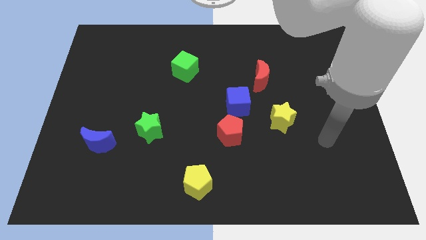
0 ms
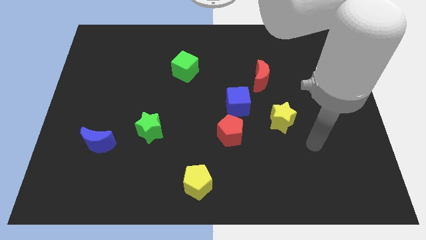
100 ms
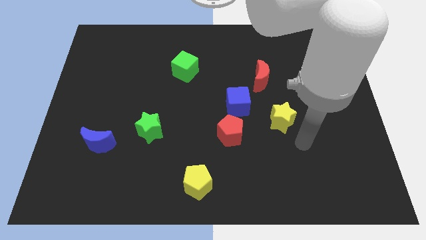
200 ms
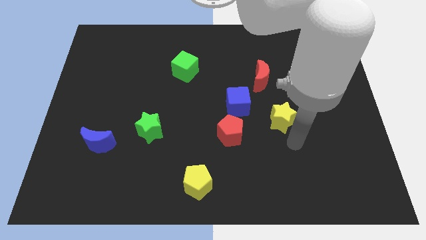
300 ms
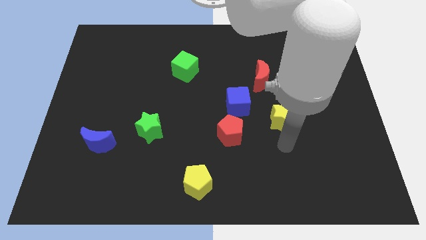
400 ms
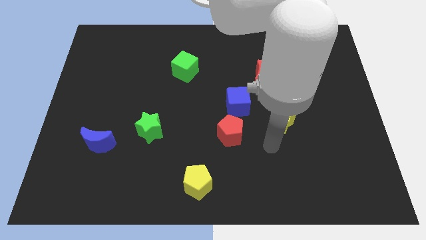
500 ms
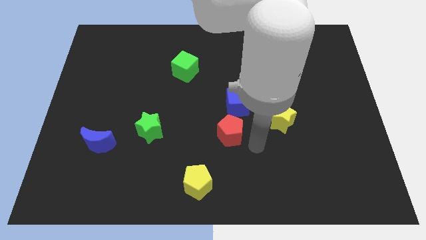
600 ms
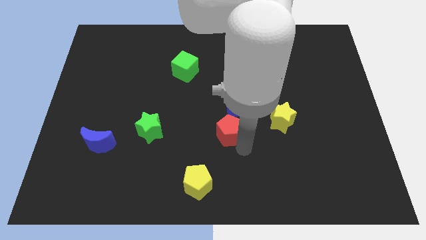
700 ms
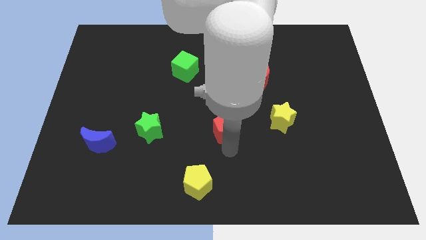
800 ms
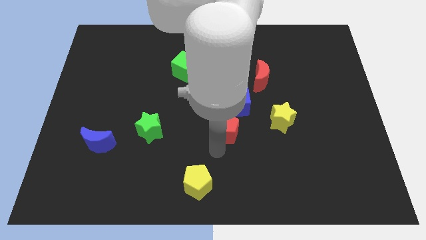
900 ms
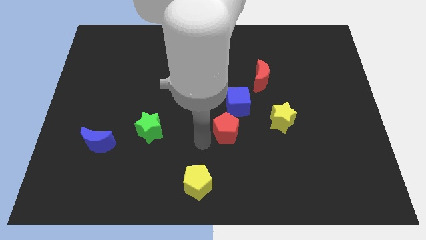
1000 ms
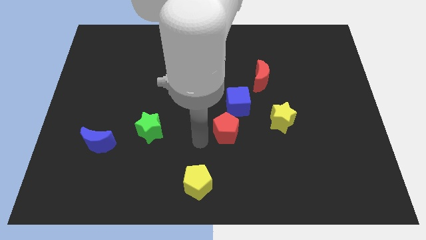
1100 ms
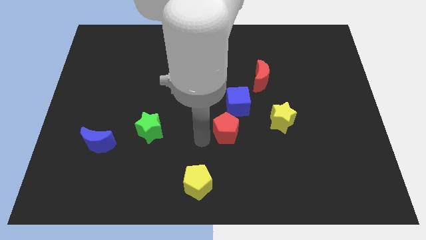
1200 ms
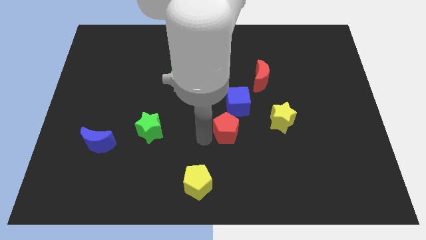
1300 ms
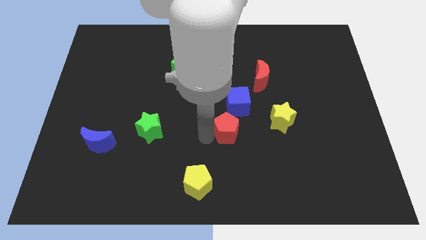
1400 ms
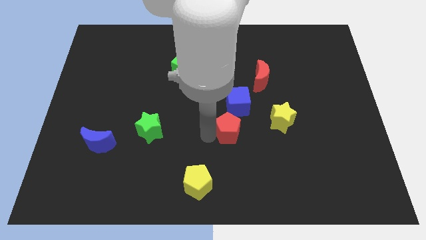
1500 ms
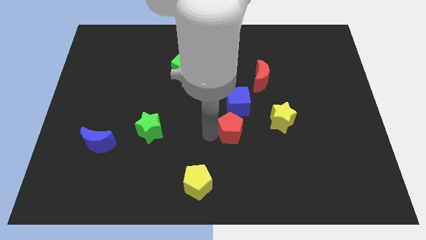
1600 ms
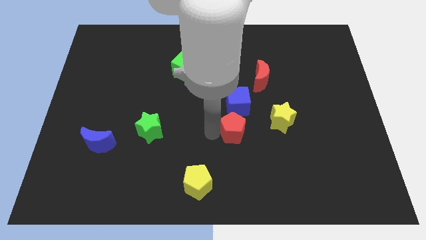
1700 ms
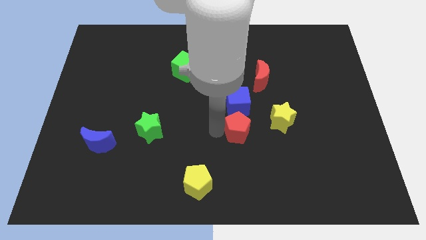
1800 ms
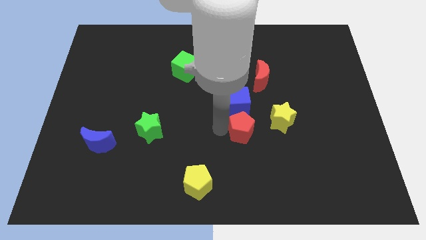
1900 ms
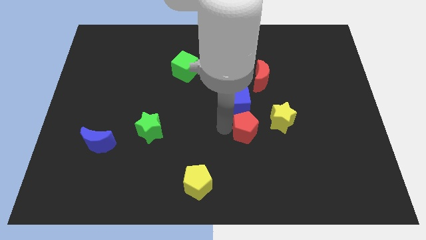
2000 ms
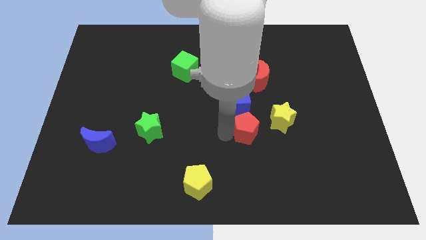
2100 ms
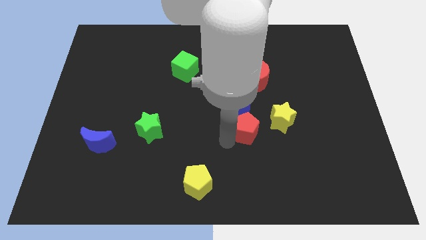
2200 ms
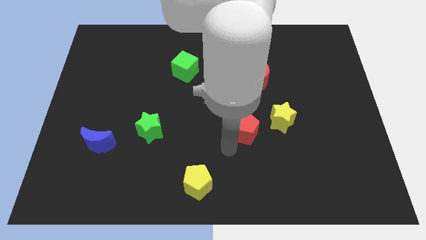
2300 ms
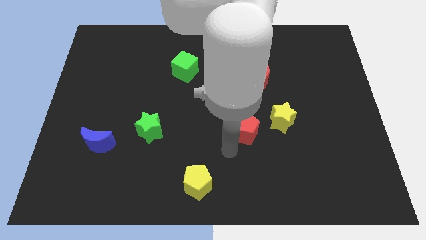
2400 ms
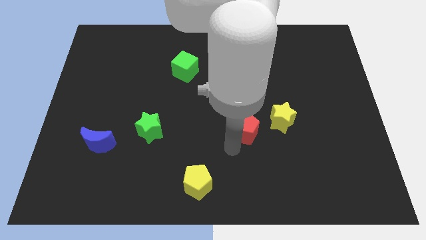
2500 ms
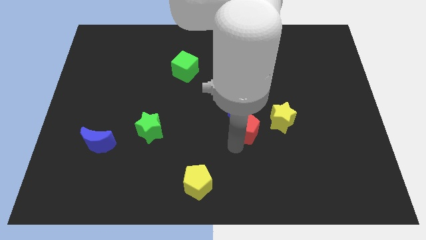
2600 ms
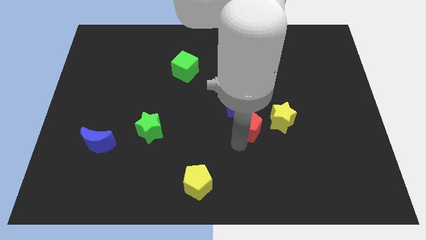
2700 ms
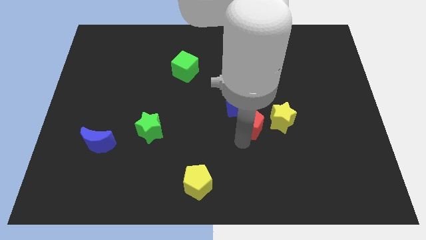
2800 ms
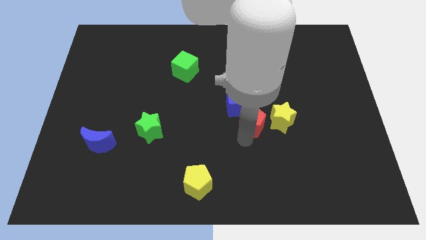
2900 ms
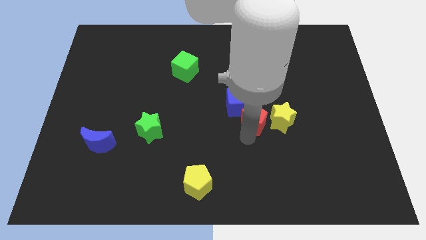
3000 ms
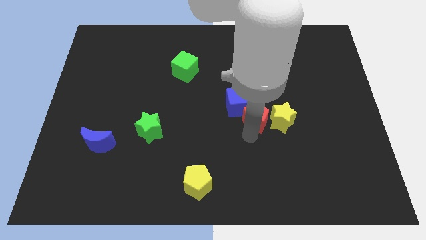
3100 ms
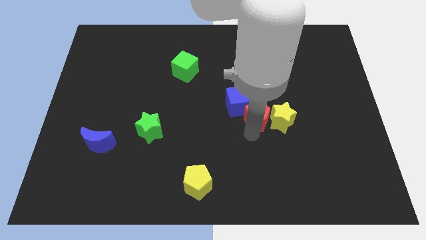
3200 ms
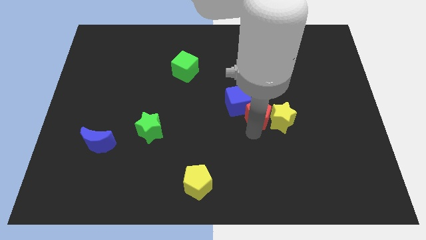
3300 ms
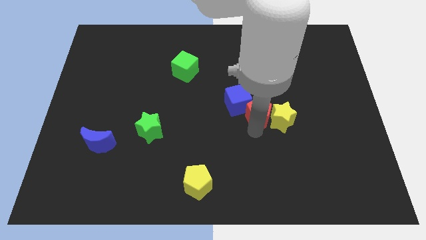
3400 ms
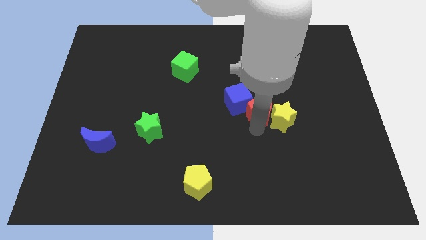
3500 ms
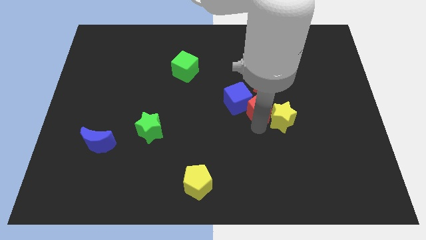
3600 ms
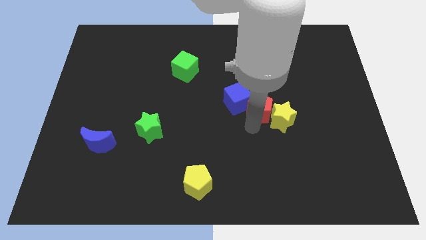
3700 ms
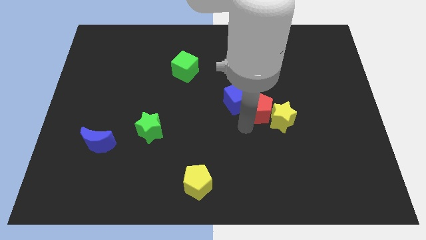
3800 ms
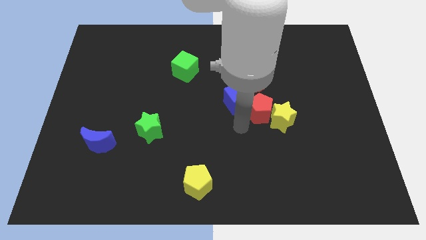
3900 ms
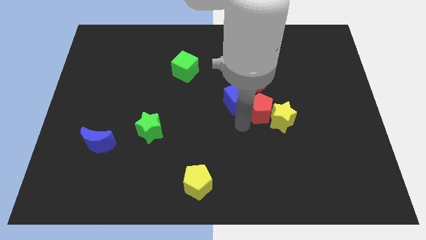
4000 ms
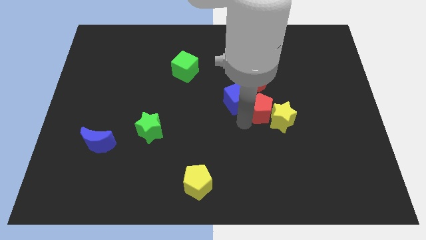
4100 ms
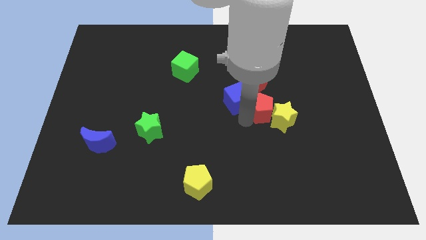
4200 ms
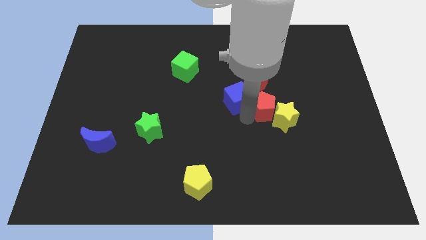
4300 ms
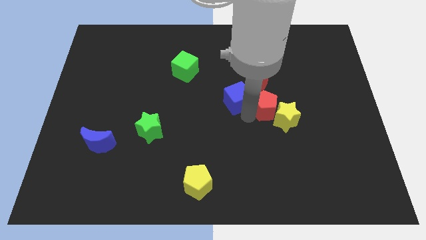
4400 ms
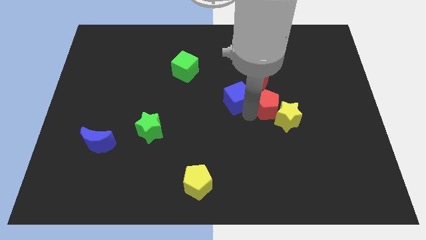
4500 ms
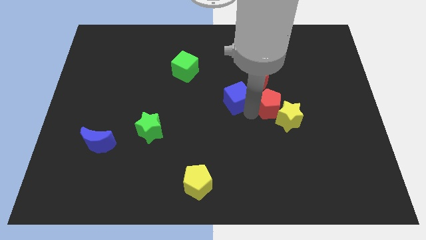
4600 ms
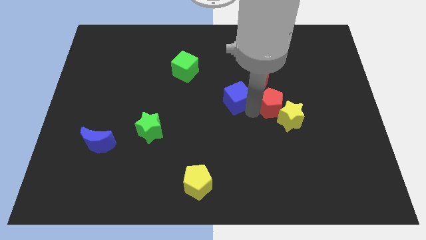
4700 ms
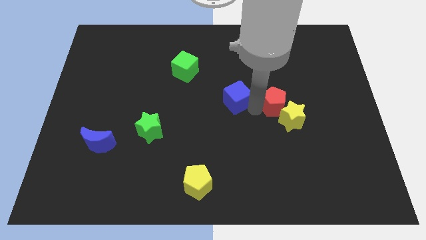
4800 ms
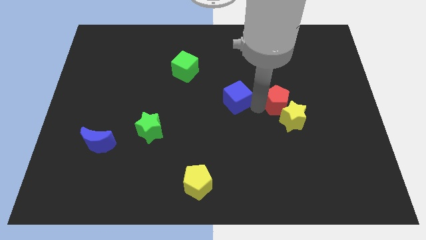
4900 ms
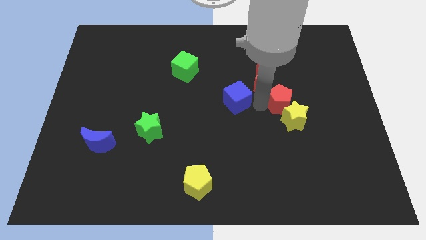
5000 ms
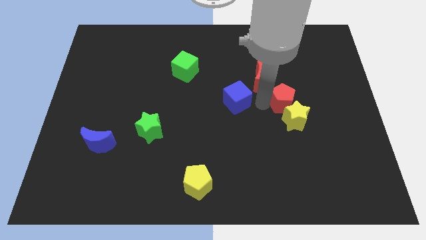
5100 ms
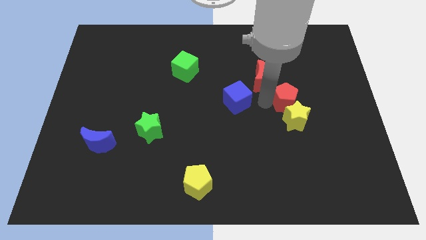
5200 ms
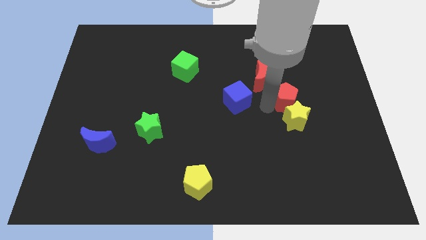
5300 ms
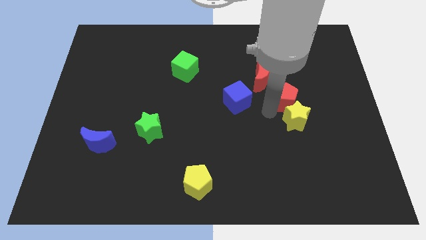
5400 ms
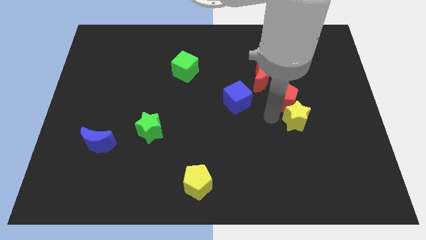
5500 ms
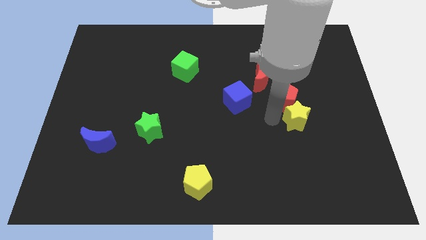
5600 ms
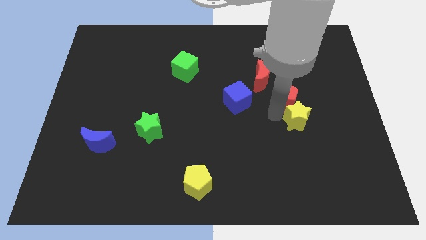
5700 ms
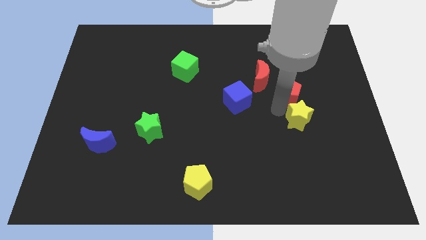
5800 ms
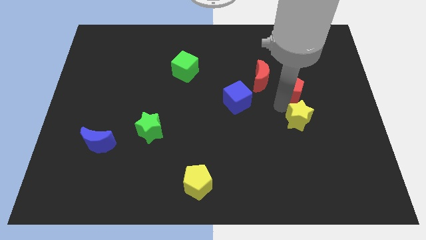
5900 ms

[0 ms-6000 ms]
put the red pentagon to the right of the red moon

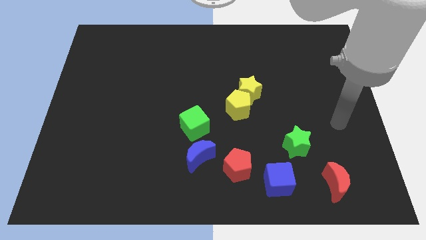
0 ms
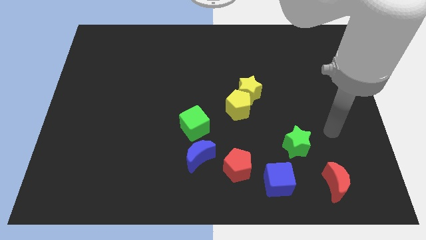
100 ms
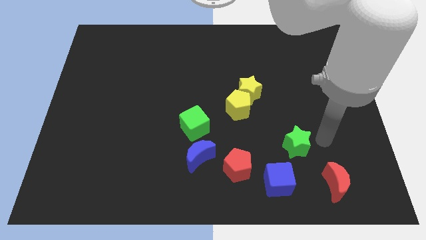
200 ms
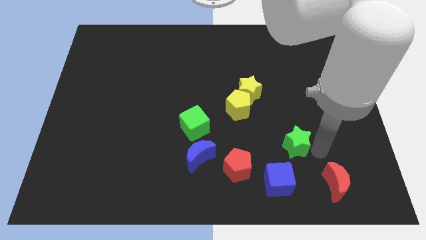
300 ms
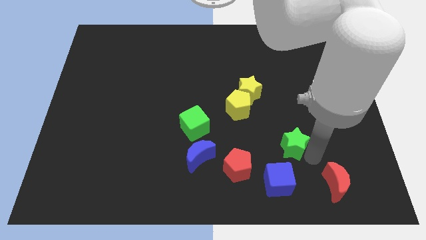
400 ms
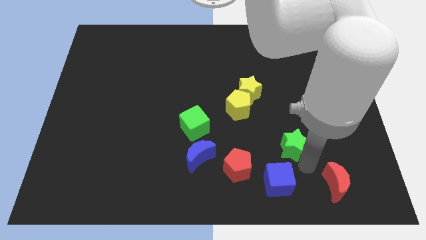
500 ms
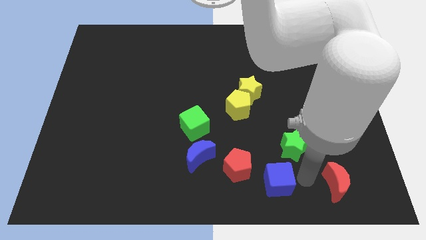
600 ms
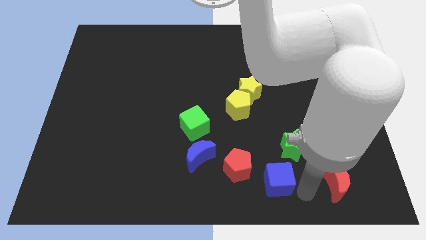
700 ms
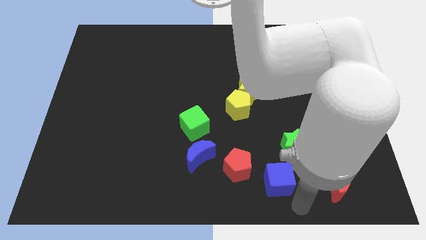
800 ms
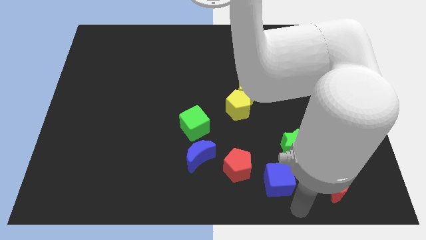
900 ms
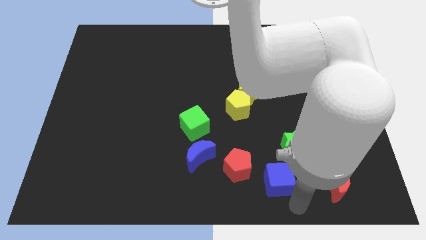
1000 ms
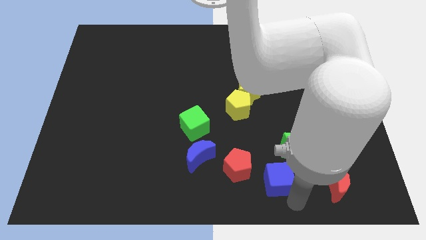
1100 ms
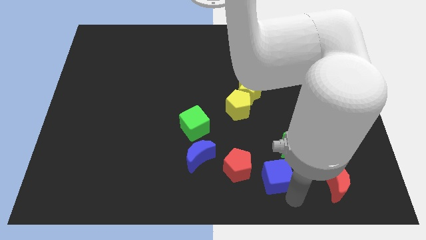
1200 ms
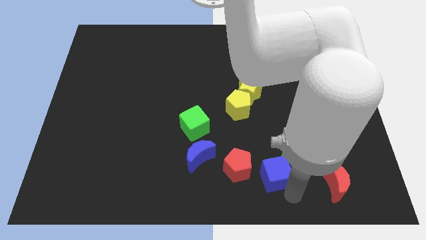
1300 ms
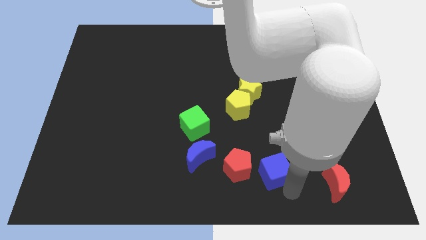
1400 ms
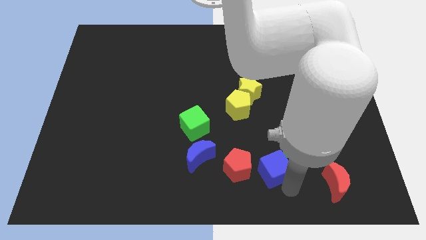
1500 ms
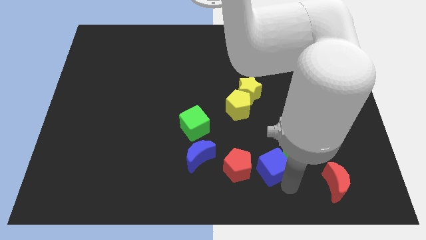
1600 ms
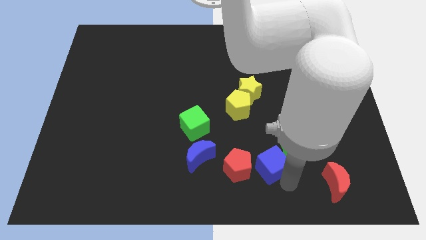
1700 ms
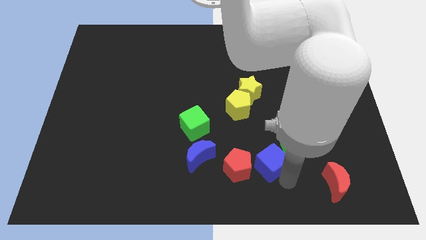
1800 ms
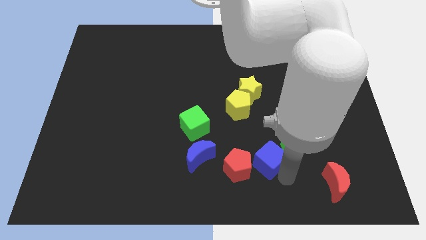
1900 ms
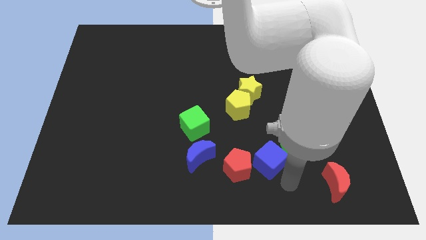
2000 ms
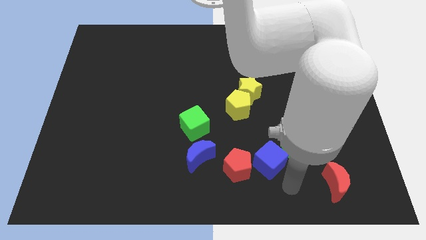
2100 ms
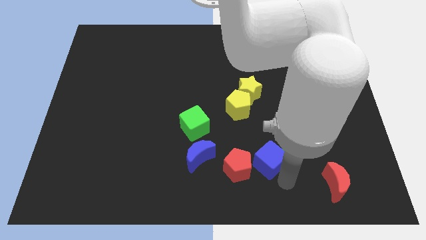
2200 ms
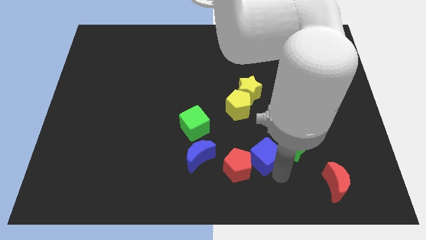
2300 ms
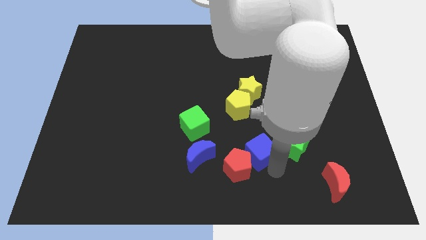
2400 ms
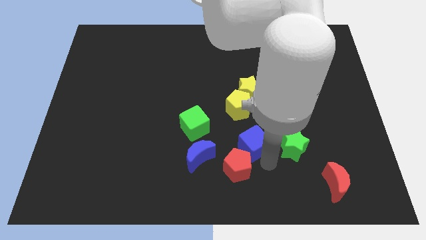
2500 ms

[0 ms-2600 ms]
move the blue cube to the top side of the red pentagon
